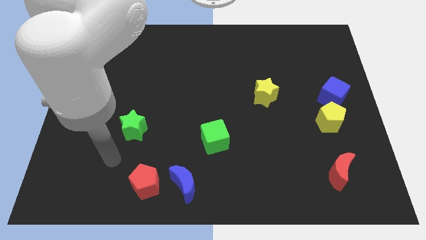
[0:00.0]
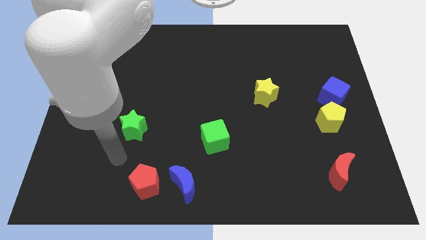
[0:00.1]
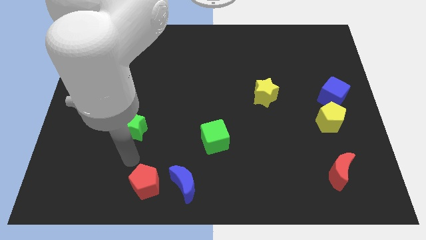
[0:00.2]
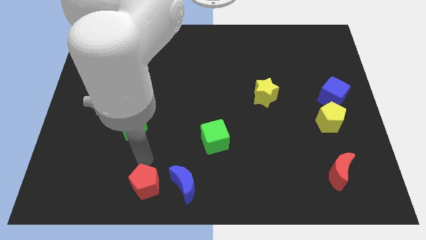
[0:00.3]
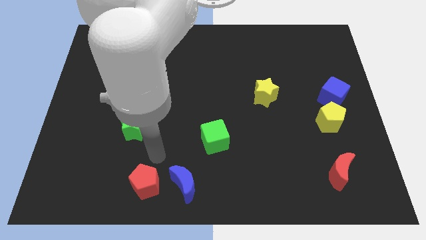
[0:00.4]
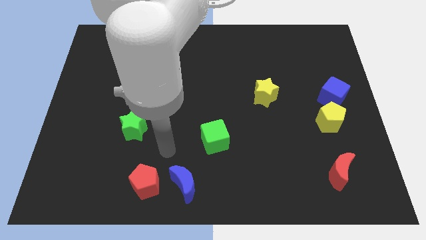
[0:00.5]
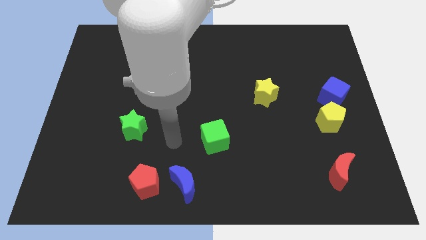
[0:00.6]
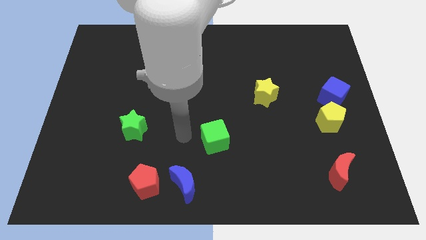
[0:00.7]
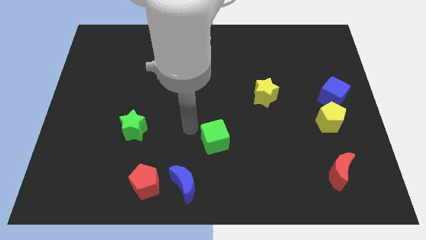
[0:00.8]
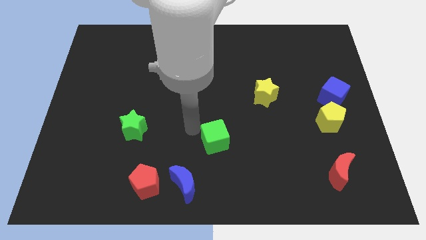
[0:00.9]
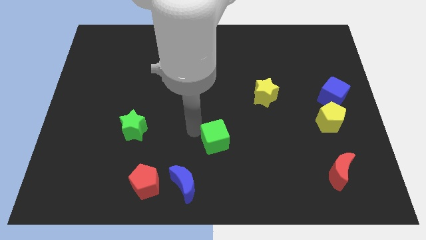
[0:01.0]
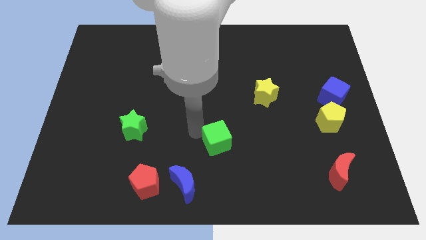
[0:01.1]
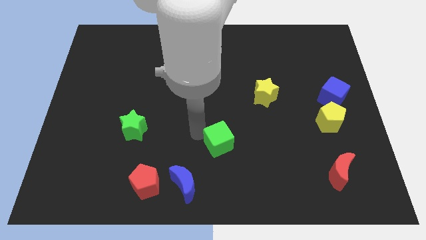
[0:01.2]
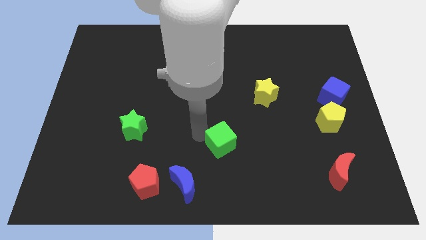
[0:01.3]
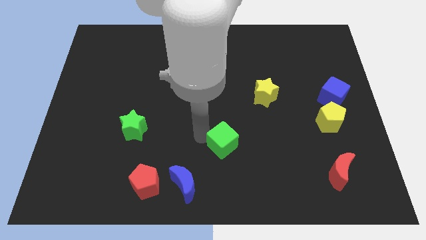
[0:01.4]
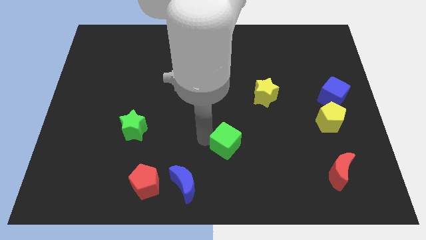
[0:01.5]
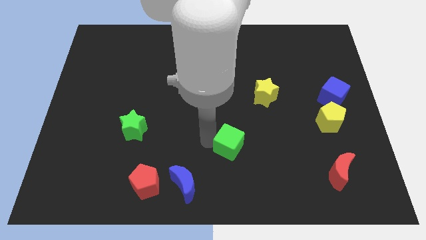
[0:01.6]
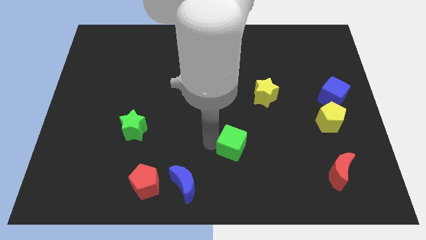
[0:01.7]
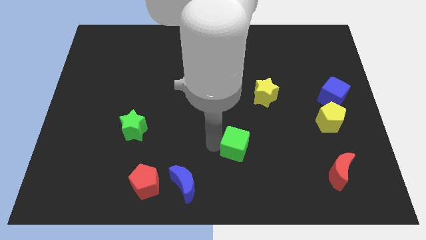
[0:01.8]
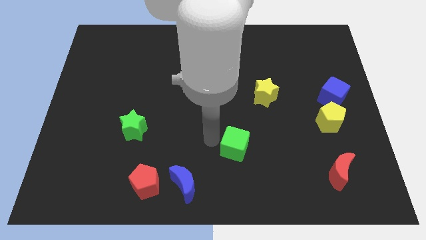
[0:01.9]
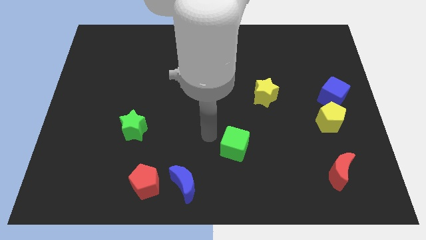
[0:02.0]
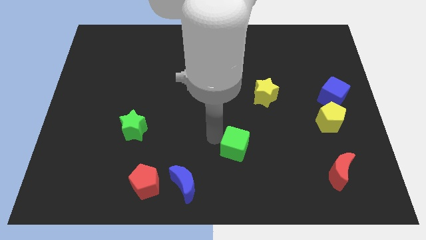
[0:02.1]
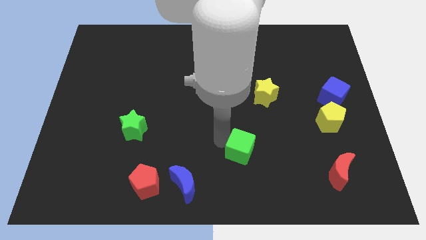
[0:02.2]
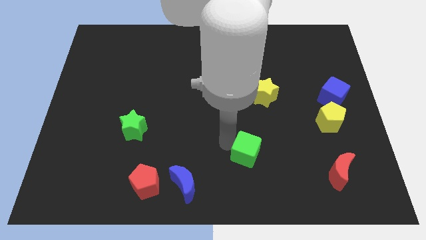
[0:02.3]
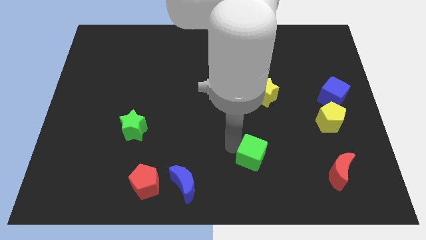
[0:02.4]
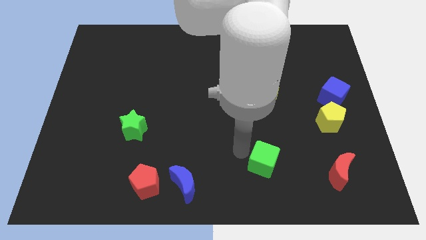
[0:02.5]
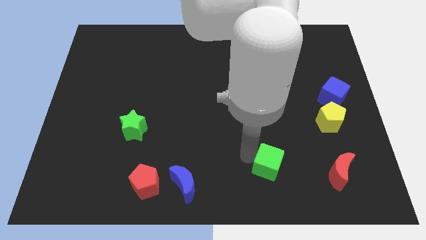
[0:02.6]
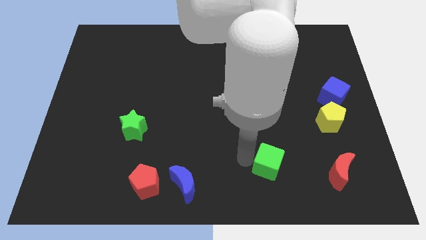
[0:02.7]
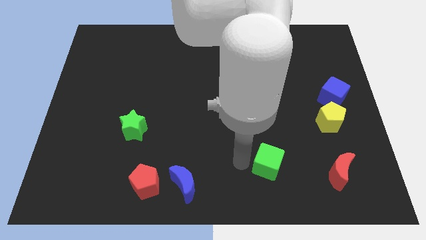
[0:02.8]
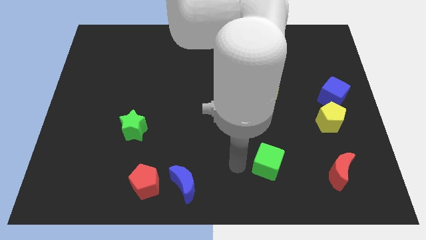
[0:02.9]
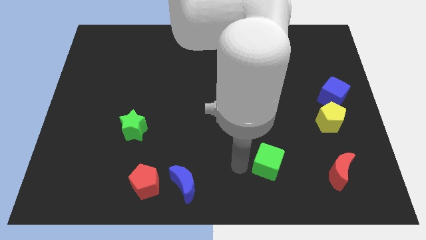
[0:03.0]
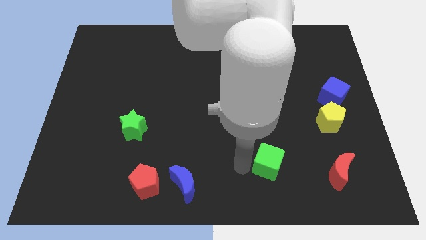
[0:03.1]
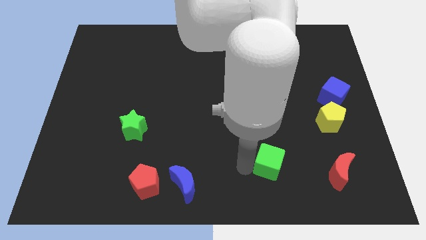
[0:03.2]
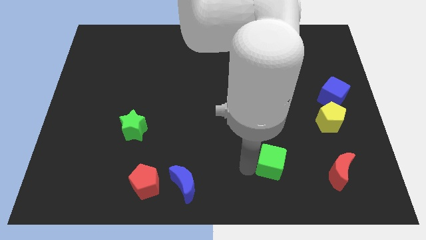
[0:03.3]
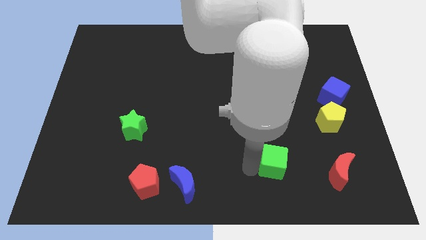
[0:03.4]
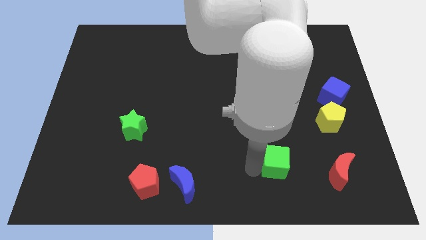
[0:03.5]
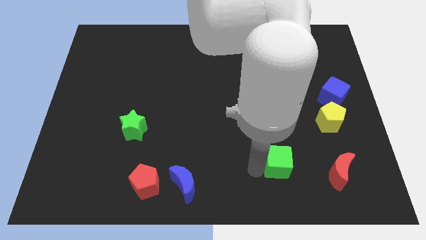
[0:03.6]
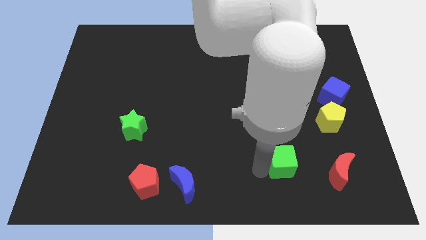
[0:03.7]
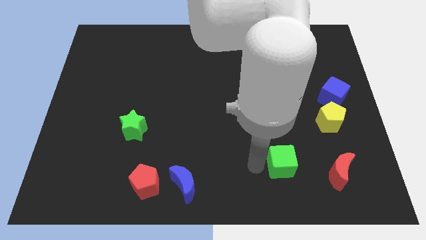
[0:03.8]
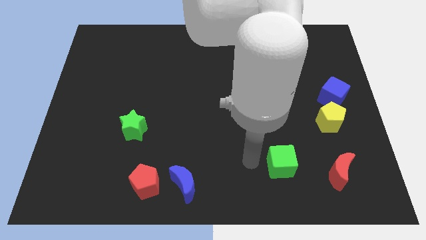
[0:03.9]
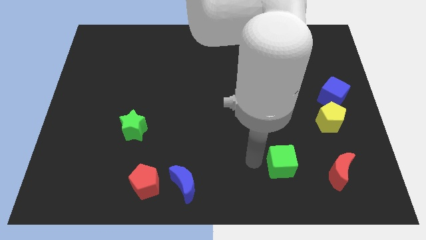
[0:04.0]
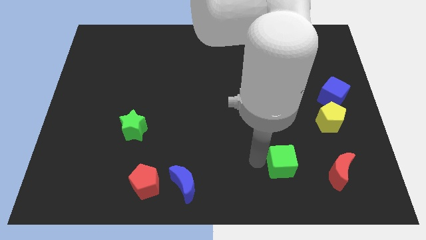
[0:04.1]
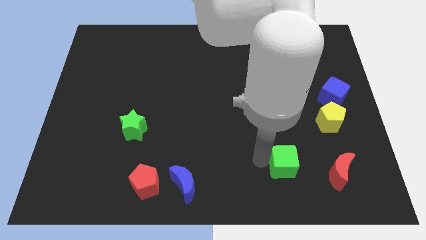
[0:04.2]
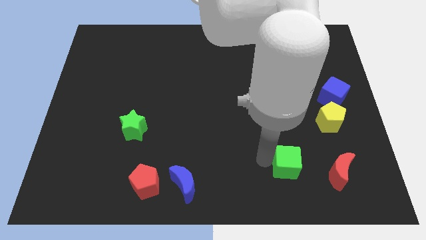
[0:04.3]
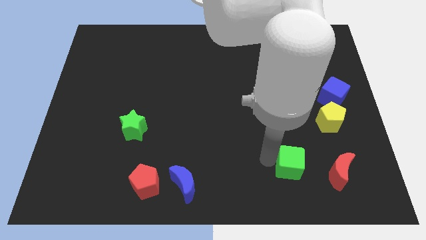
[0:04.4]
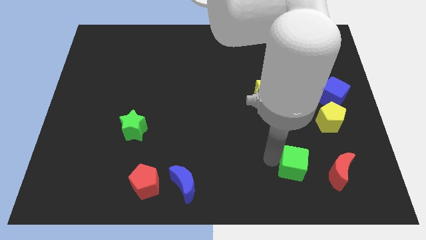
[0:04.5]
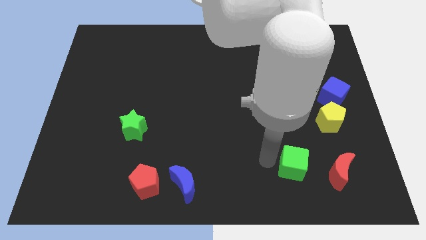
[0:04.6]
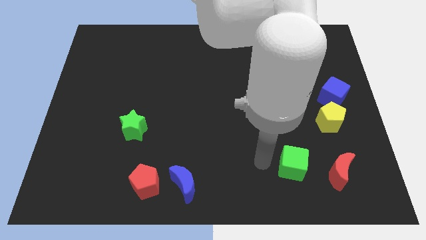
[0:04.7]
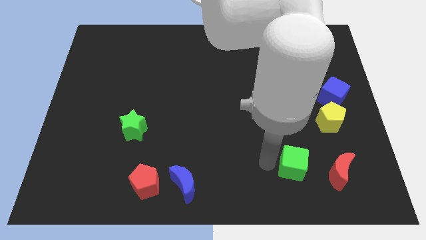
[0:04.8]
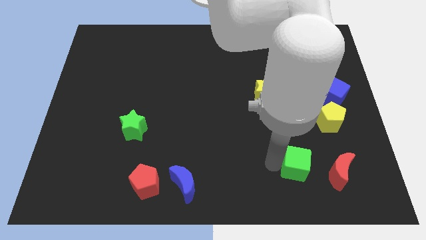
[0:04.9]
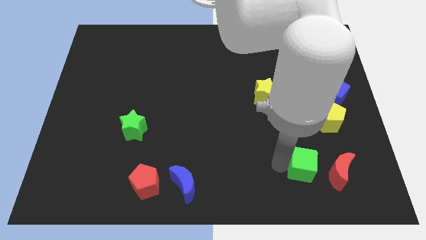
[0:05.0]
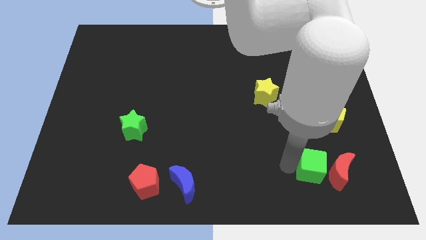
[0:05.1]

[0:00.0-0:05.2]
move the green cube to the red moon

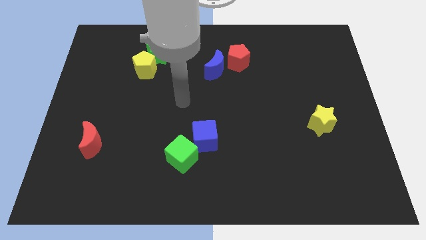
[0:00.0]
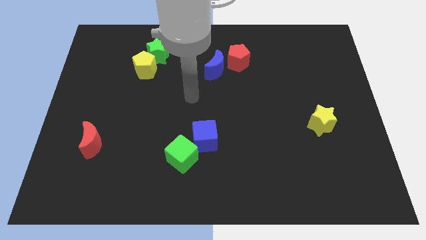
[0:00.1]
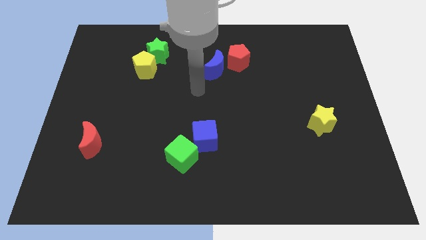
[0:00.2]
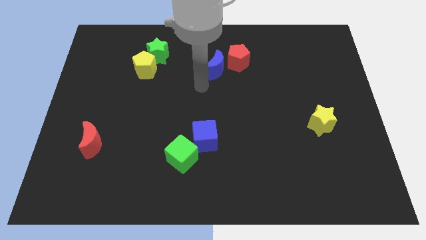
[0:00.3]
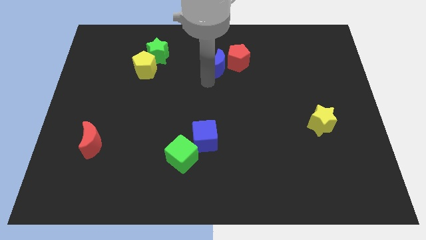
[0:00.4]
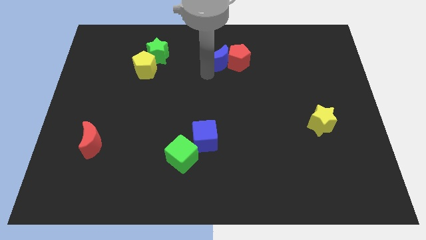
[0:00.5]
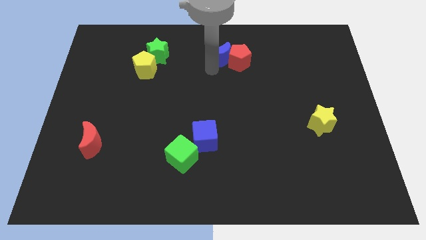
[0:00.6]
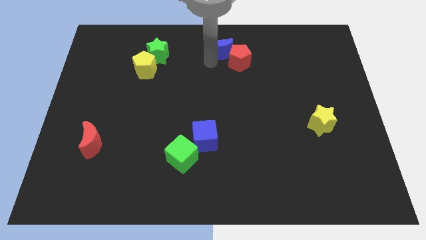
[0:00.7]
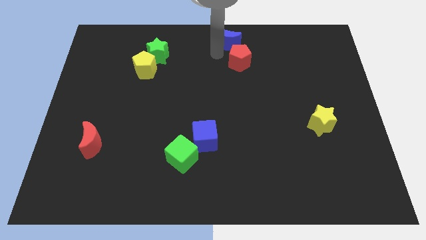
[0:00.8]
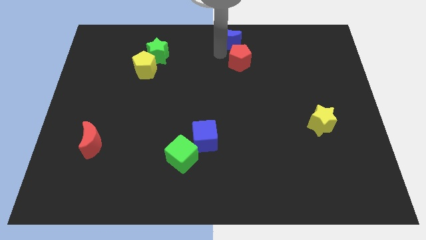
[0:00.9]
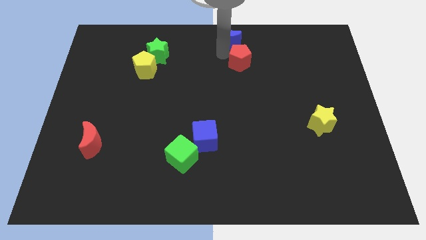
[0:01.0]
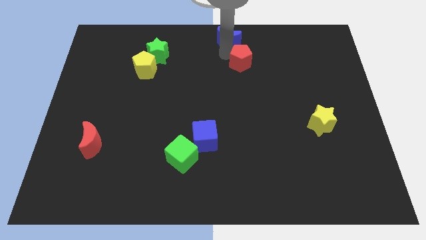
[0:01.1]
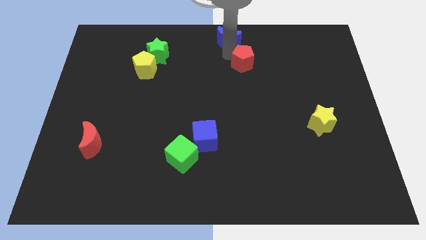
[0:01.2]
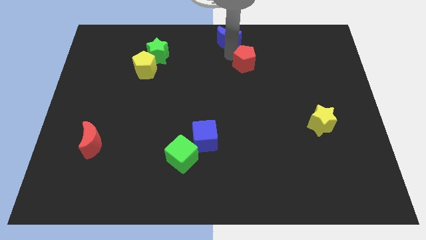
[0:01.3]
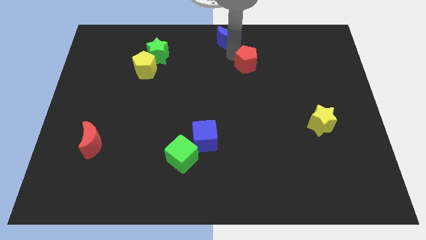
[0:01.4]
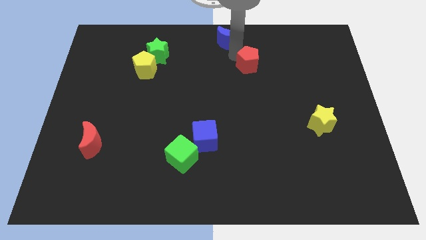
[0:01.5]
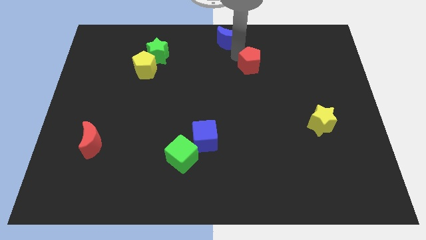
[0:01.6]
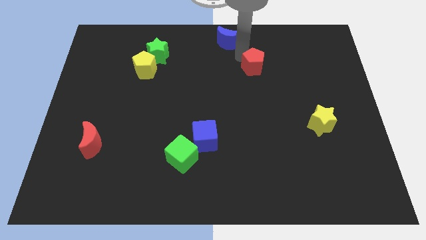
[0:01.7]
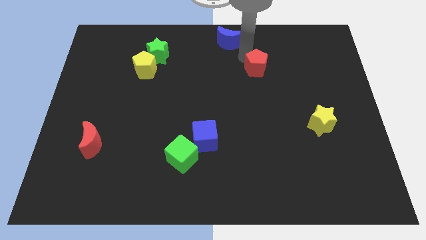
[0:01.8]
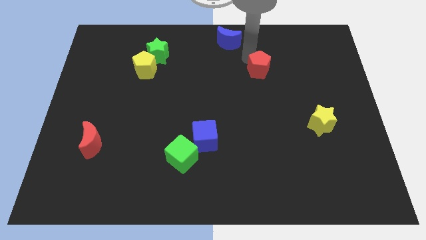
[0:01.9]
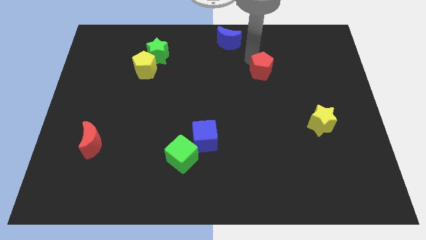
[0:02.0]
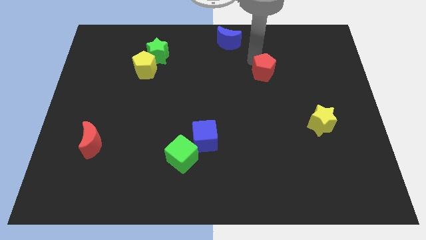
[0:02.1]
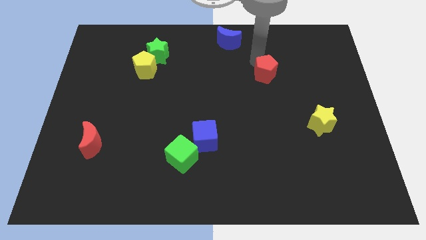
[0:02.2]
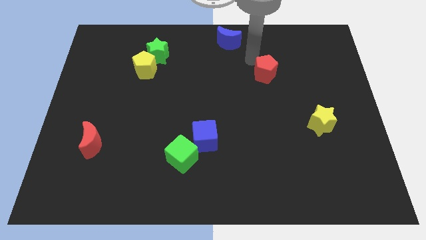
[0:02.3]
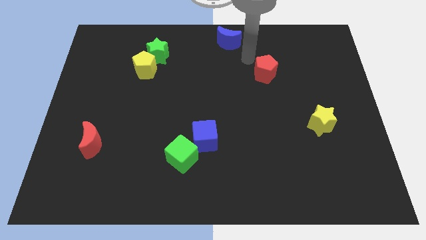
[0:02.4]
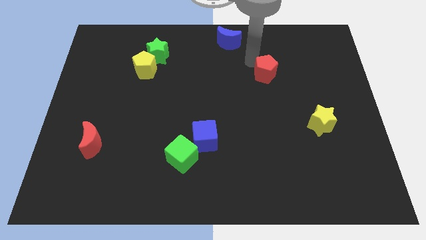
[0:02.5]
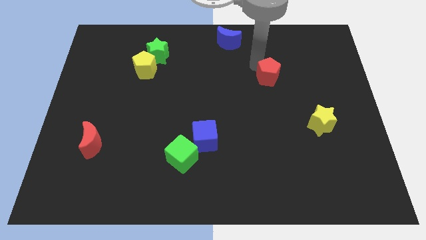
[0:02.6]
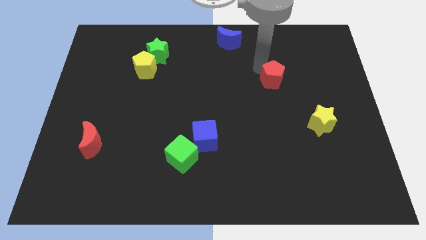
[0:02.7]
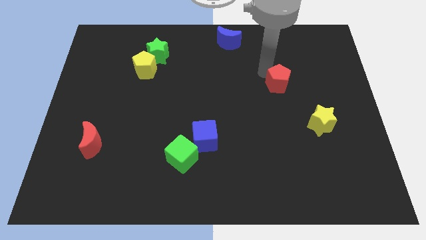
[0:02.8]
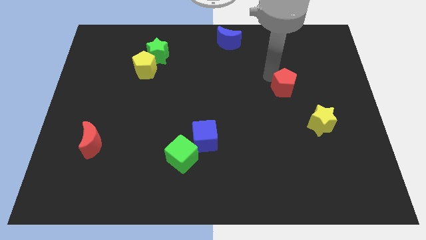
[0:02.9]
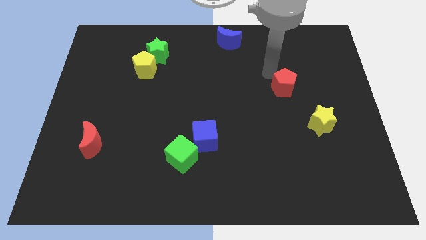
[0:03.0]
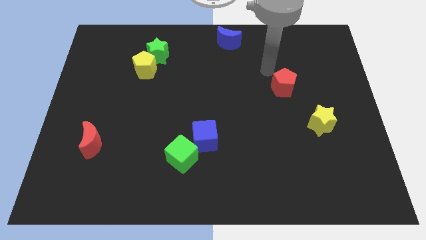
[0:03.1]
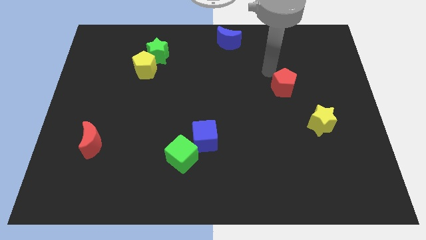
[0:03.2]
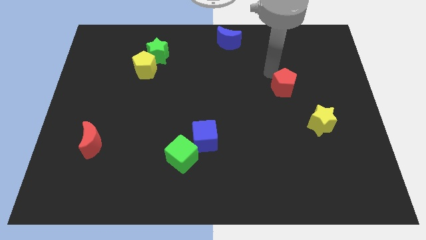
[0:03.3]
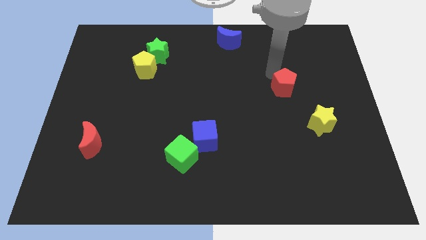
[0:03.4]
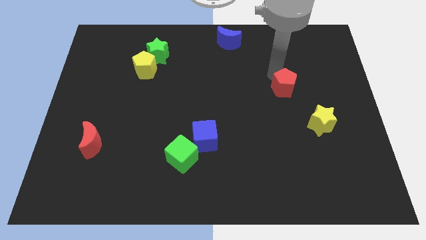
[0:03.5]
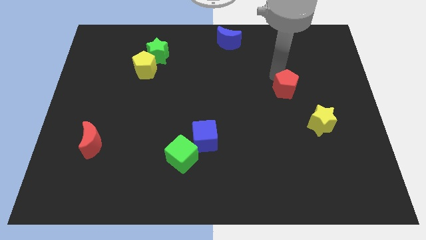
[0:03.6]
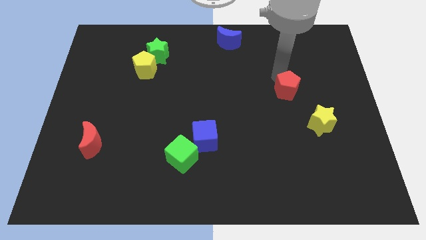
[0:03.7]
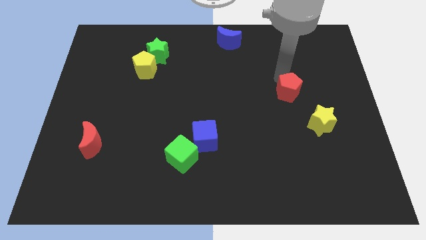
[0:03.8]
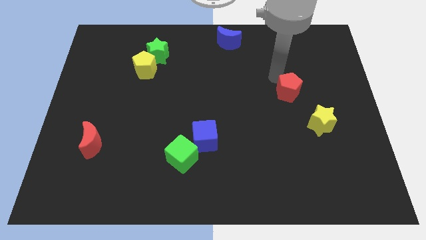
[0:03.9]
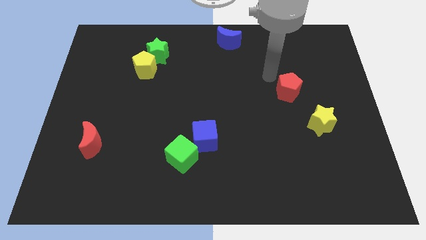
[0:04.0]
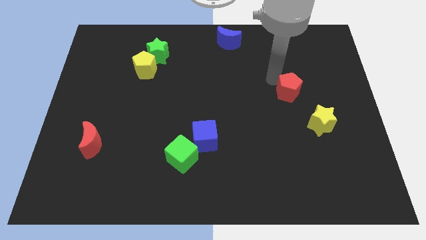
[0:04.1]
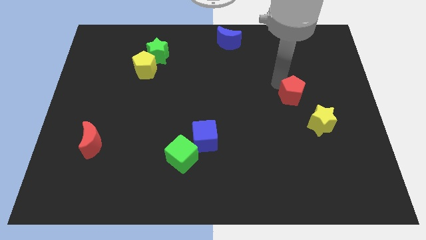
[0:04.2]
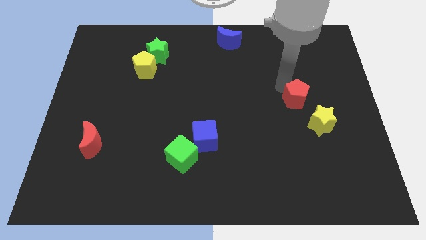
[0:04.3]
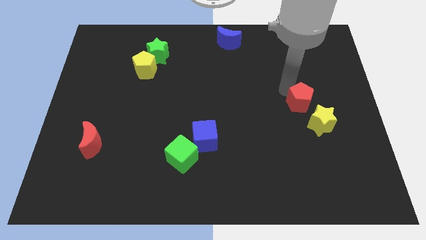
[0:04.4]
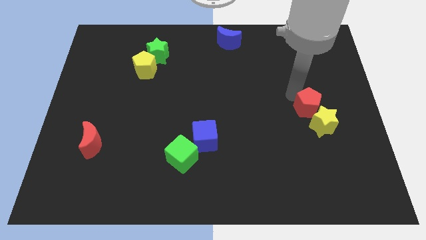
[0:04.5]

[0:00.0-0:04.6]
push the red pentagon next to the yellow star
